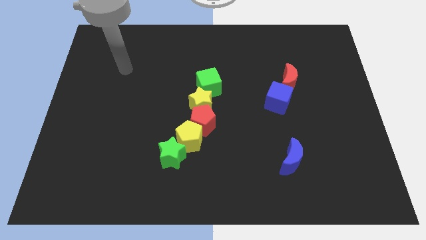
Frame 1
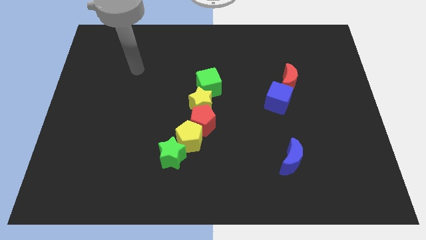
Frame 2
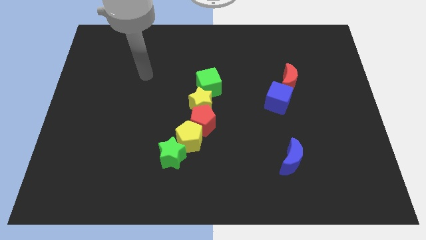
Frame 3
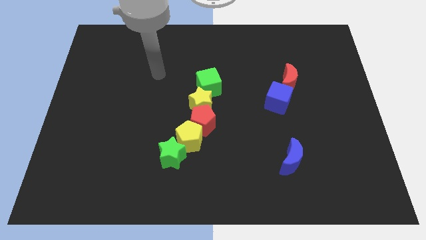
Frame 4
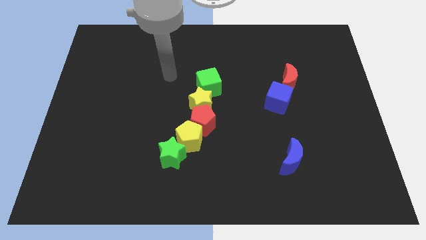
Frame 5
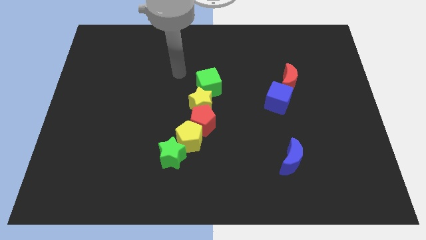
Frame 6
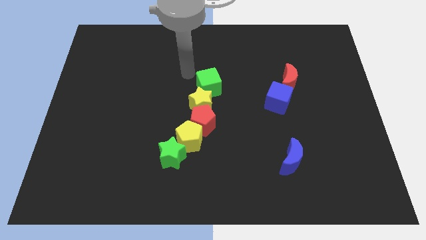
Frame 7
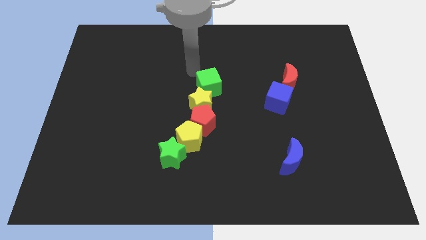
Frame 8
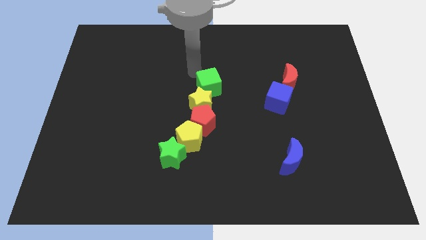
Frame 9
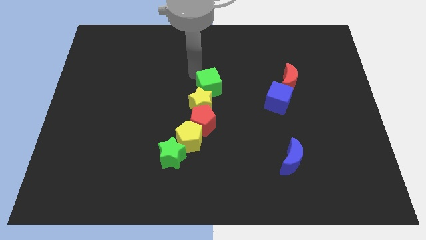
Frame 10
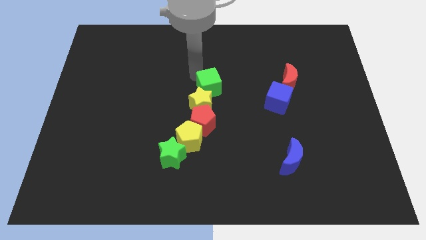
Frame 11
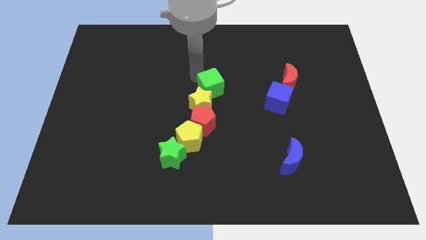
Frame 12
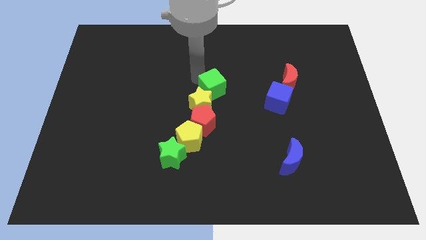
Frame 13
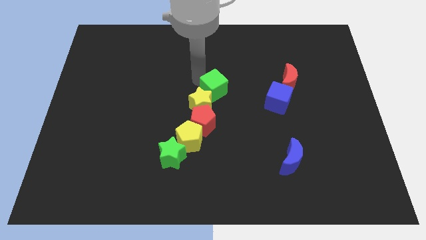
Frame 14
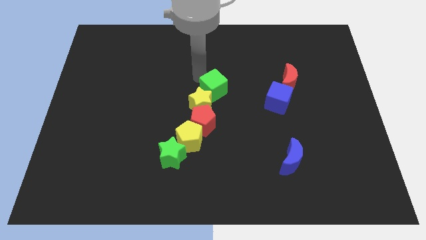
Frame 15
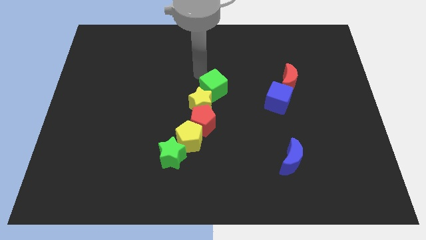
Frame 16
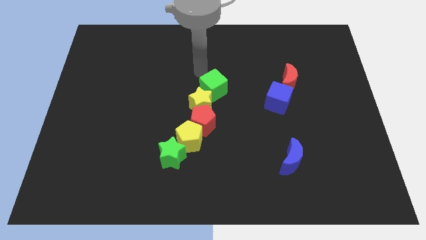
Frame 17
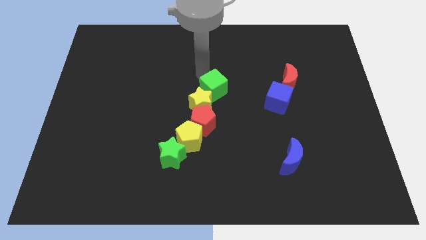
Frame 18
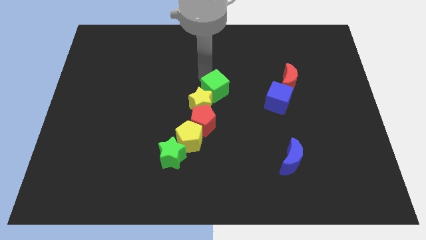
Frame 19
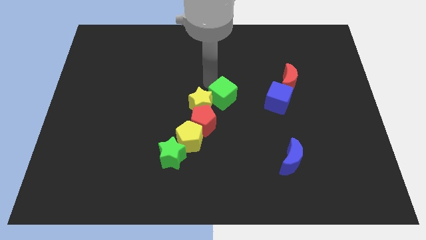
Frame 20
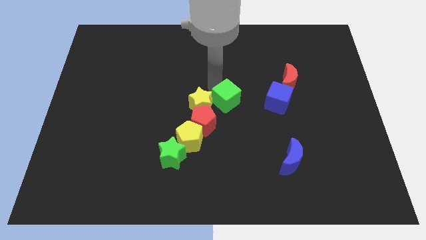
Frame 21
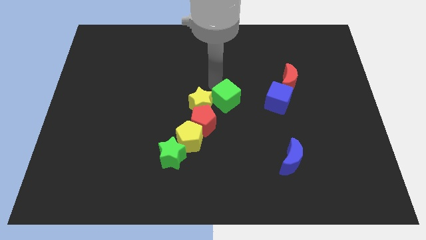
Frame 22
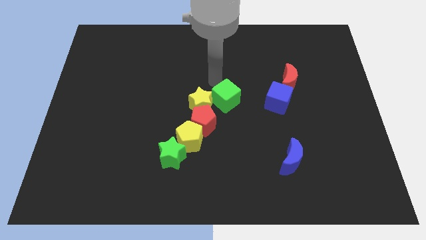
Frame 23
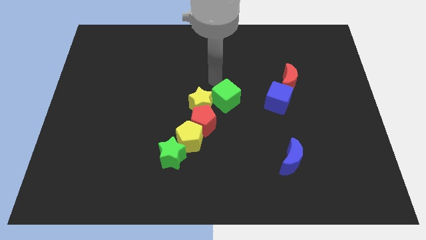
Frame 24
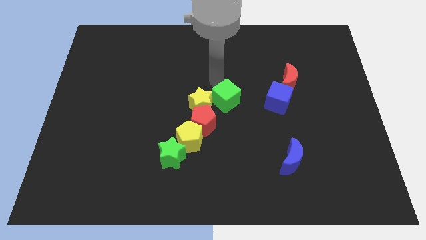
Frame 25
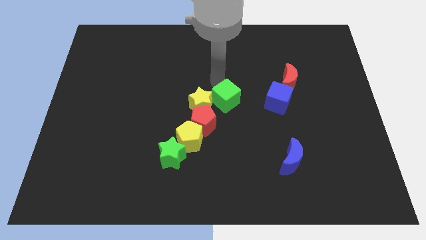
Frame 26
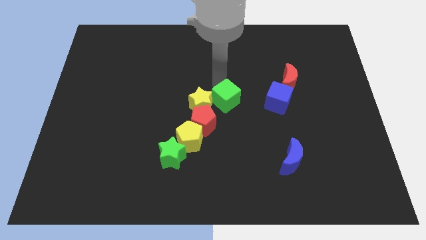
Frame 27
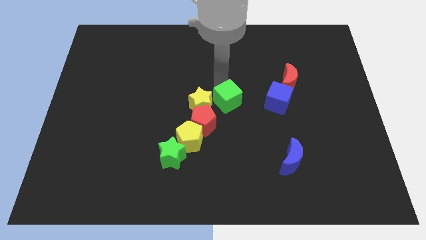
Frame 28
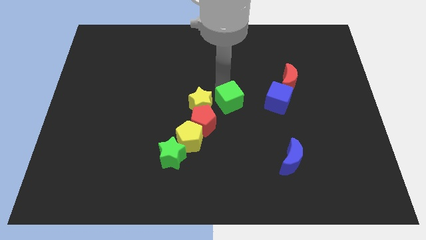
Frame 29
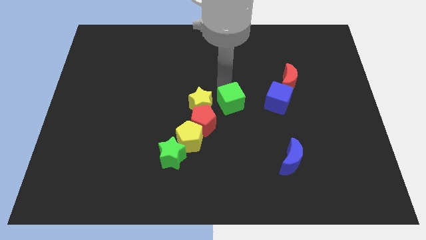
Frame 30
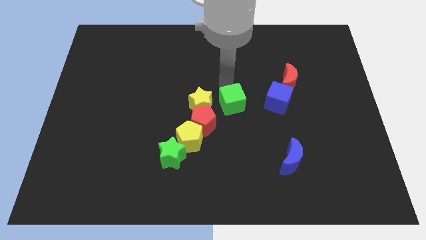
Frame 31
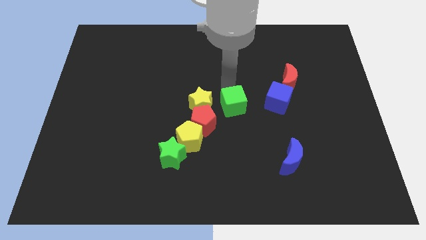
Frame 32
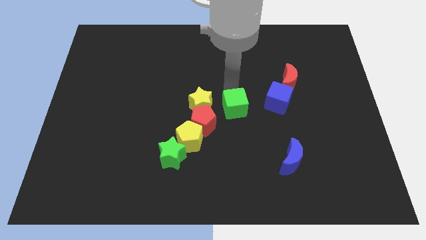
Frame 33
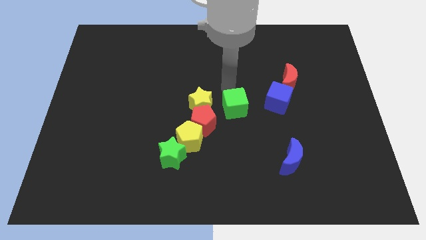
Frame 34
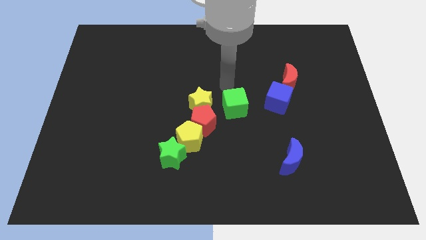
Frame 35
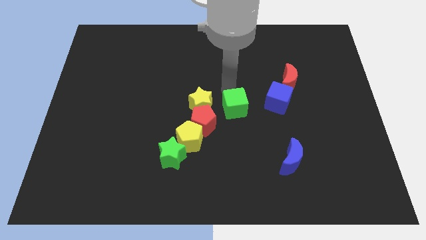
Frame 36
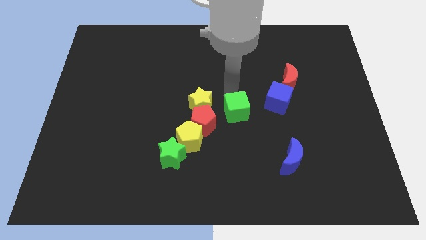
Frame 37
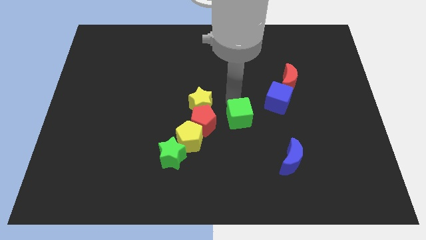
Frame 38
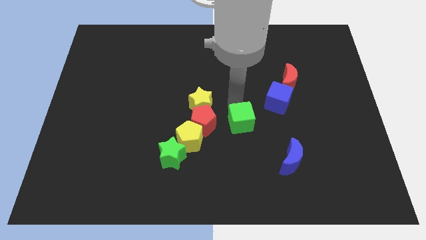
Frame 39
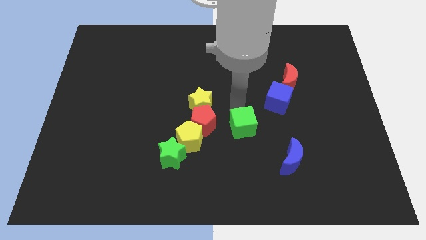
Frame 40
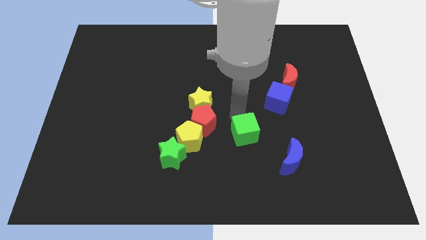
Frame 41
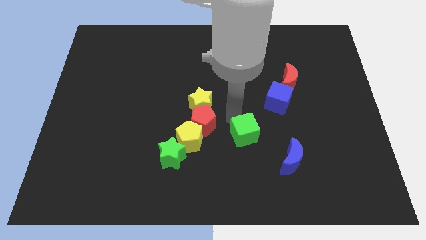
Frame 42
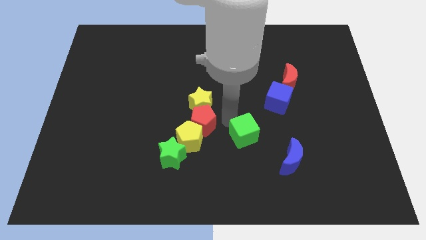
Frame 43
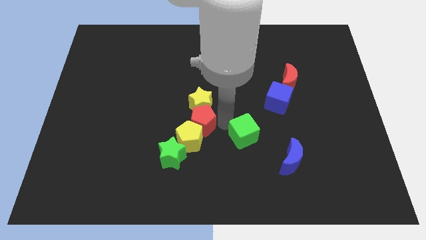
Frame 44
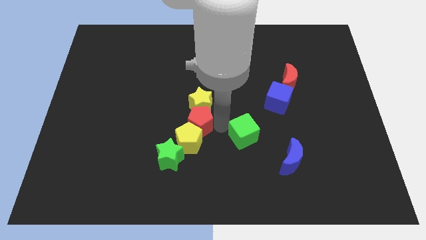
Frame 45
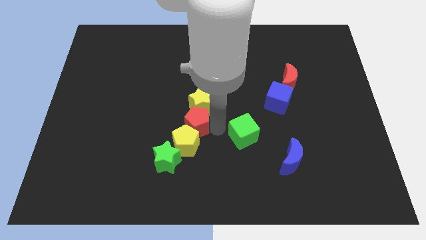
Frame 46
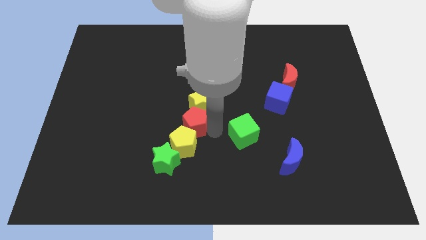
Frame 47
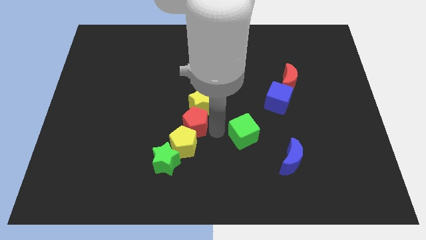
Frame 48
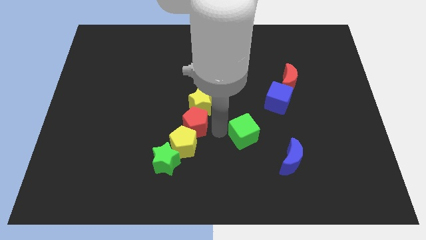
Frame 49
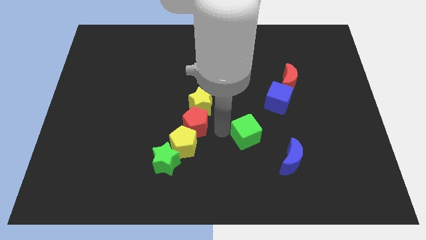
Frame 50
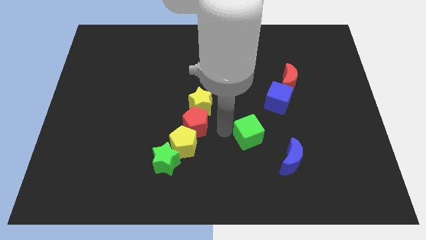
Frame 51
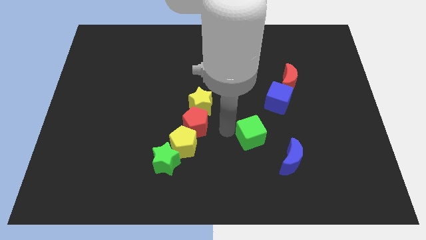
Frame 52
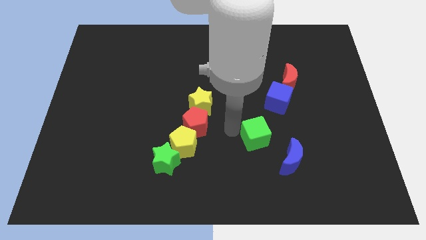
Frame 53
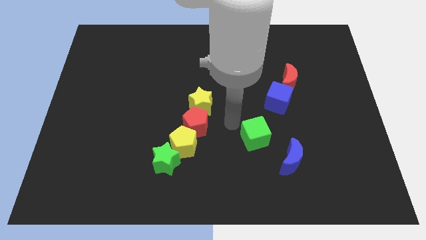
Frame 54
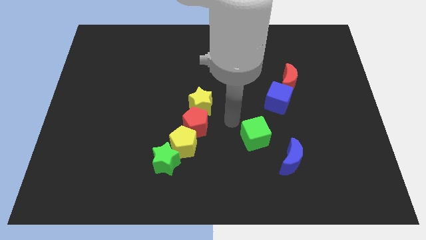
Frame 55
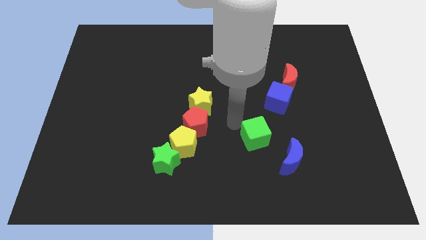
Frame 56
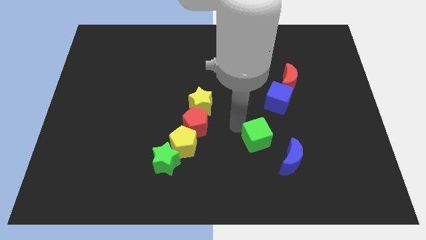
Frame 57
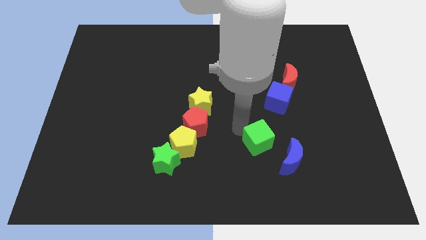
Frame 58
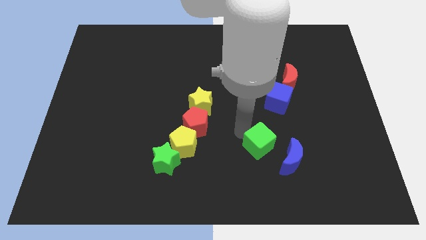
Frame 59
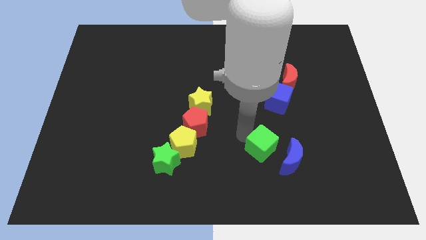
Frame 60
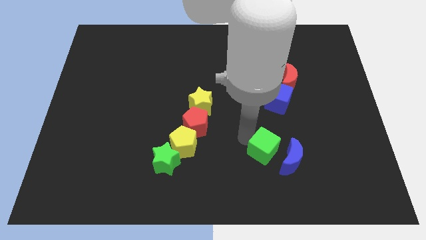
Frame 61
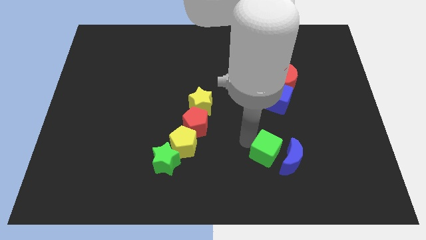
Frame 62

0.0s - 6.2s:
slide the green cube to the blue moon

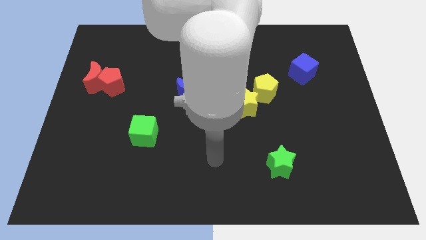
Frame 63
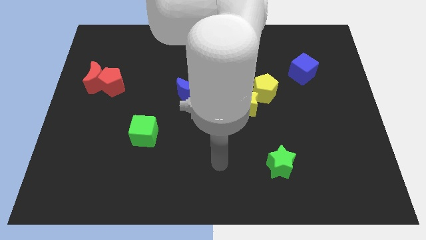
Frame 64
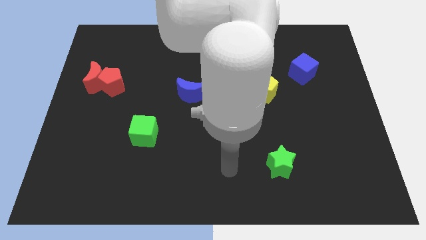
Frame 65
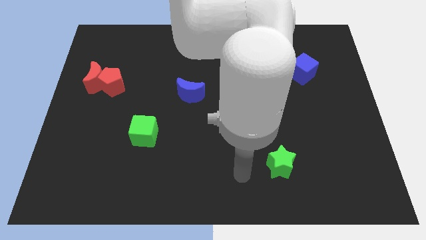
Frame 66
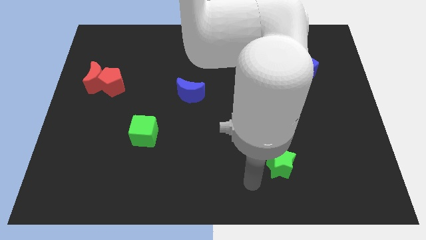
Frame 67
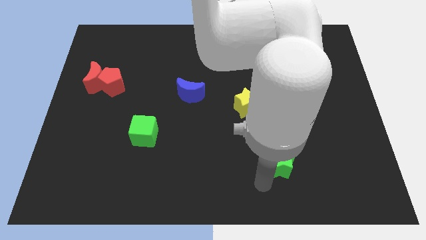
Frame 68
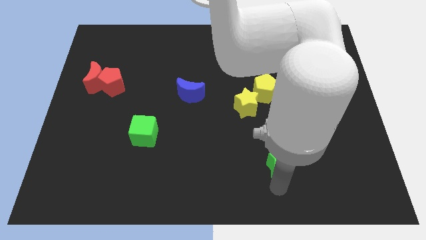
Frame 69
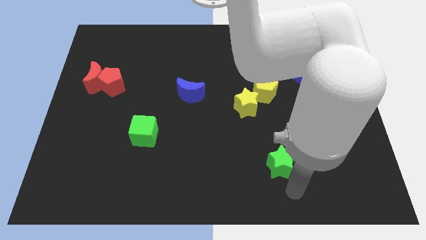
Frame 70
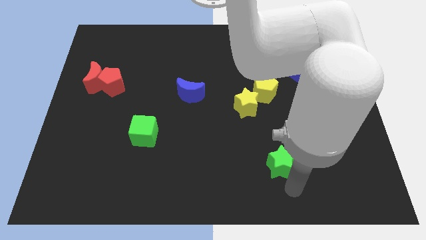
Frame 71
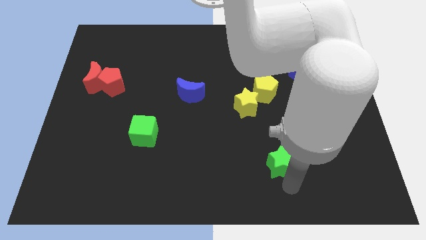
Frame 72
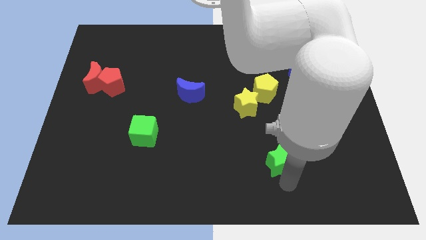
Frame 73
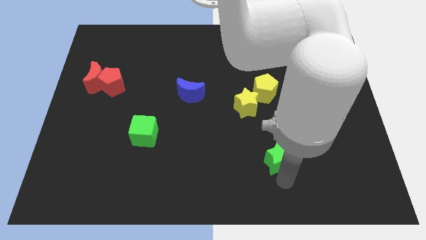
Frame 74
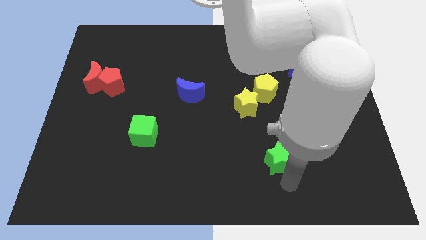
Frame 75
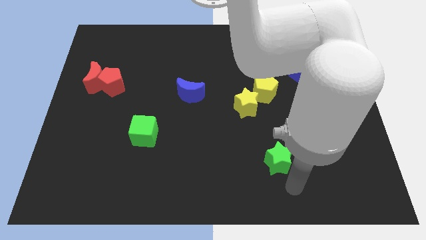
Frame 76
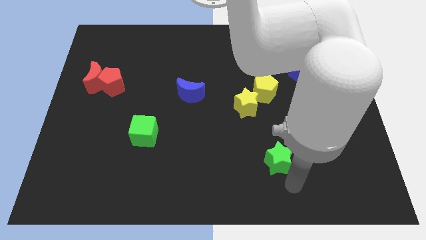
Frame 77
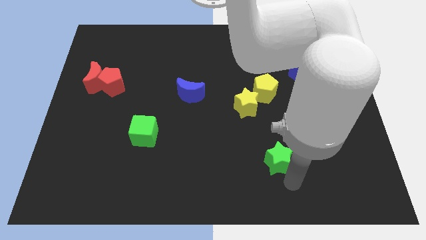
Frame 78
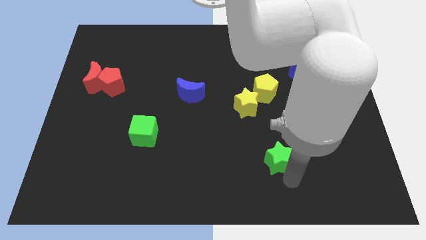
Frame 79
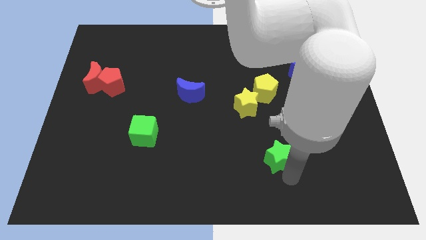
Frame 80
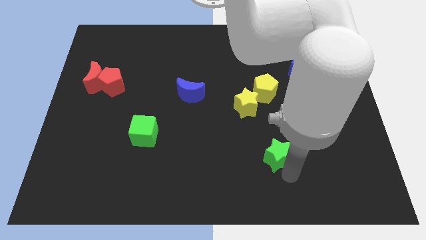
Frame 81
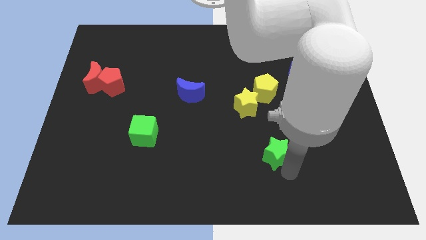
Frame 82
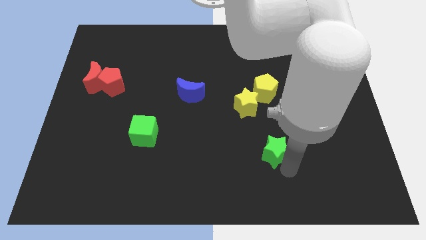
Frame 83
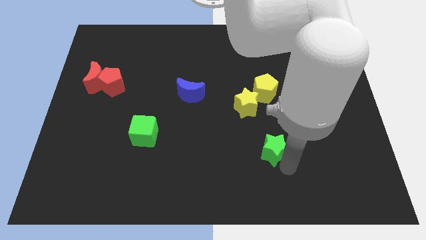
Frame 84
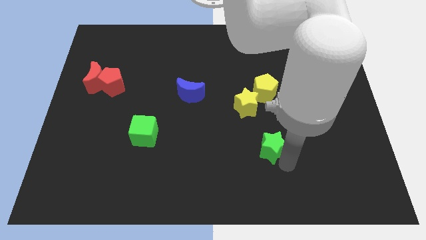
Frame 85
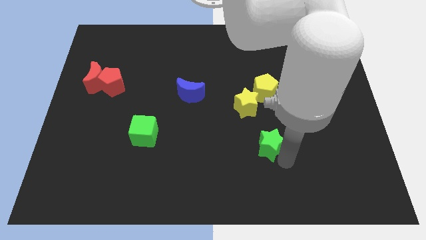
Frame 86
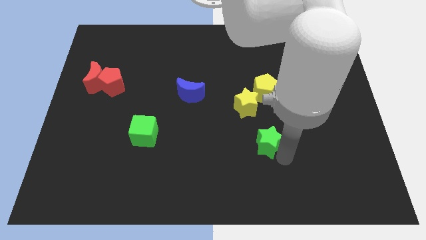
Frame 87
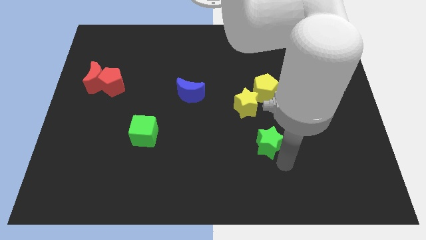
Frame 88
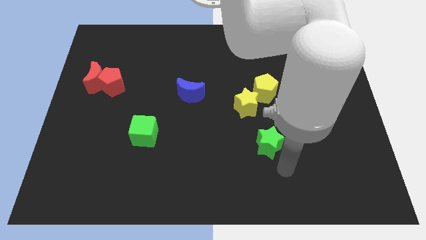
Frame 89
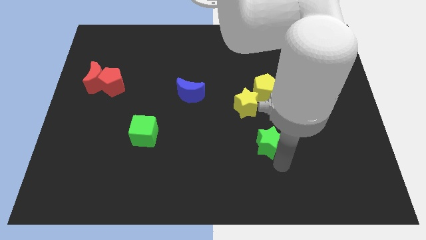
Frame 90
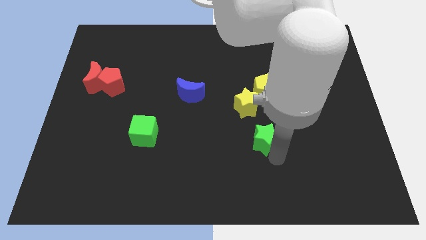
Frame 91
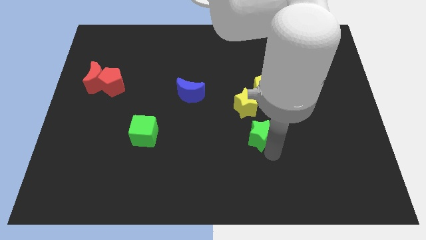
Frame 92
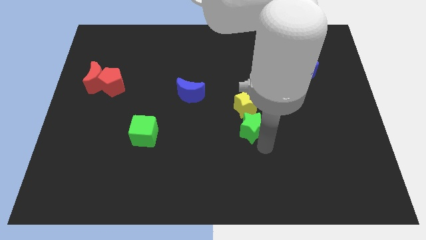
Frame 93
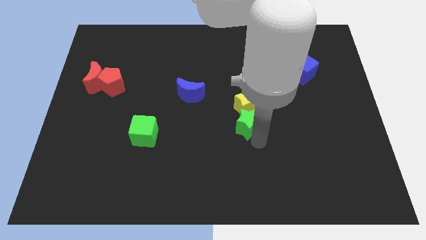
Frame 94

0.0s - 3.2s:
put the green star to the yellow star
